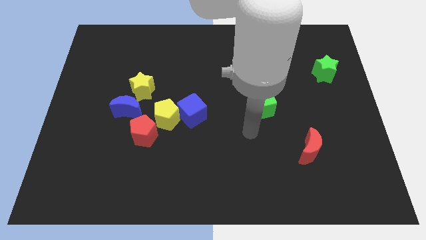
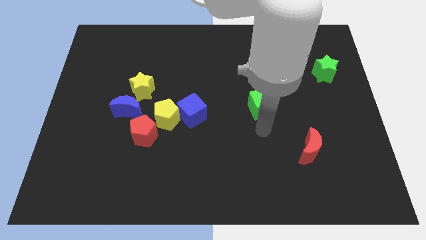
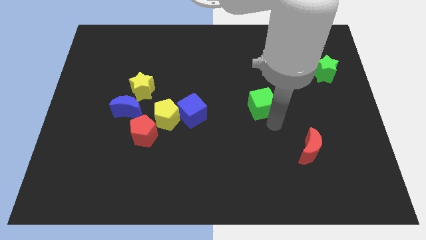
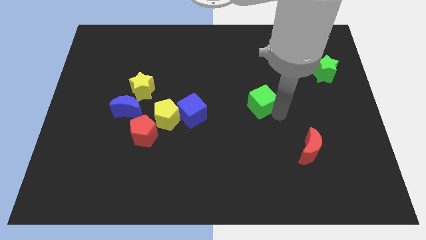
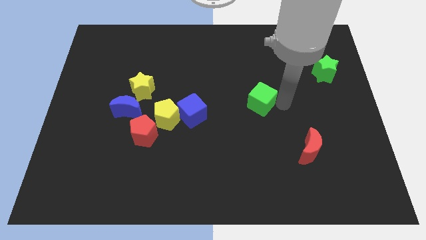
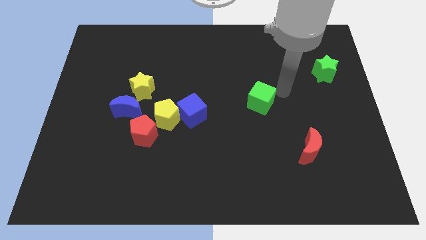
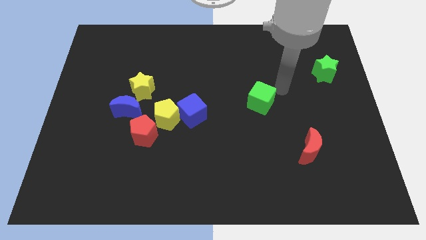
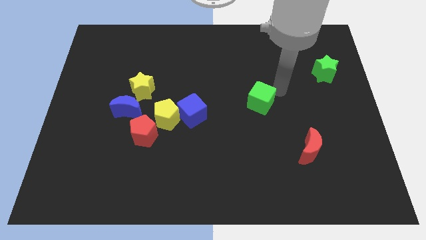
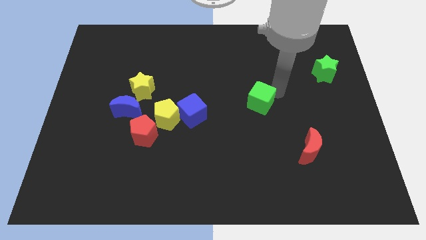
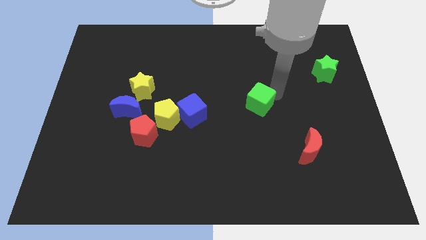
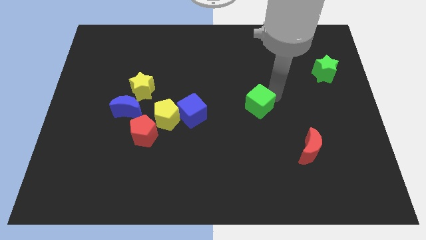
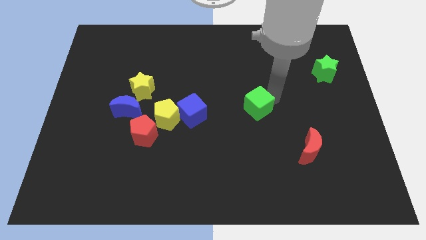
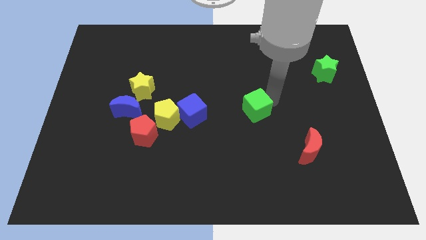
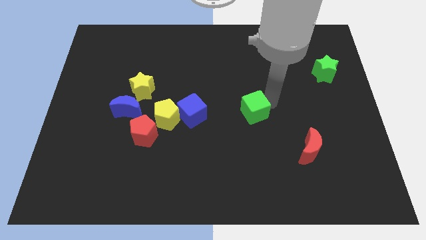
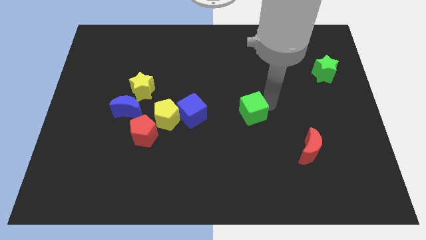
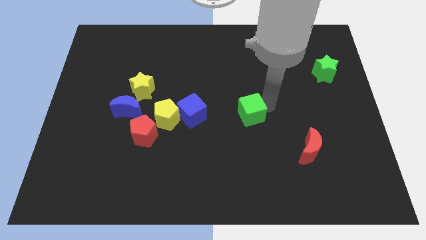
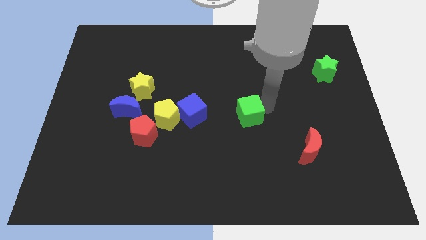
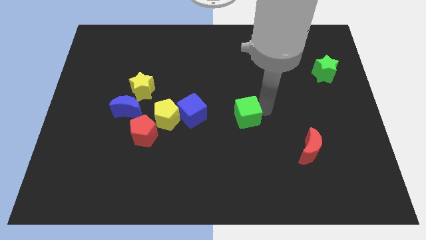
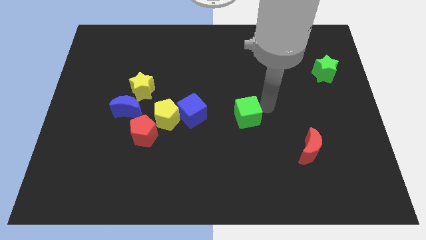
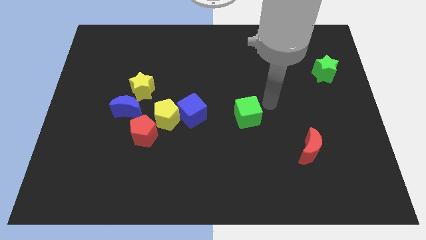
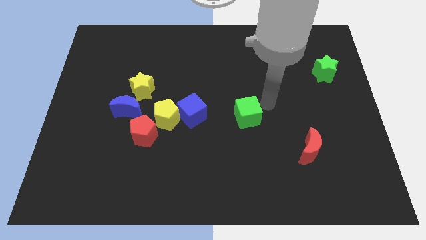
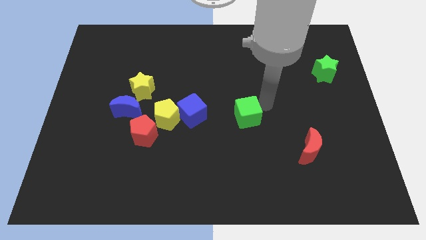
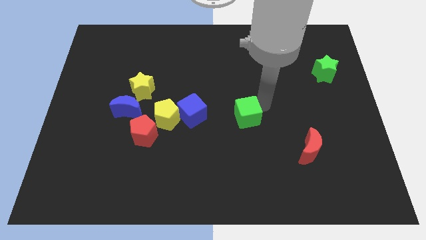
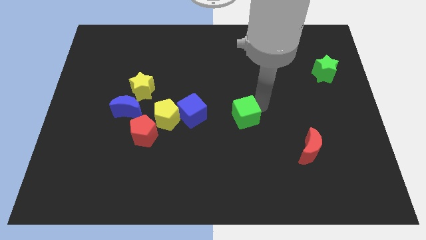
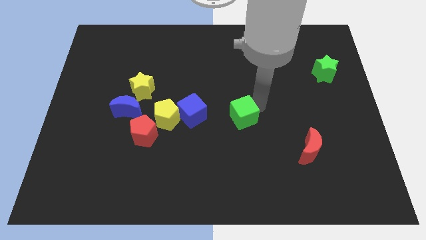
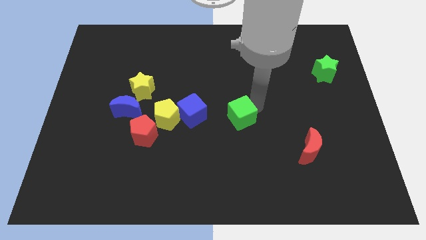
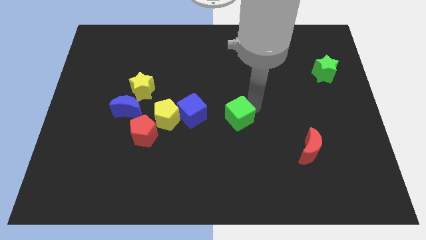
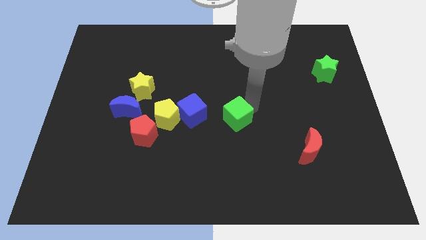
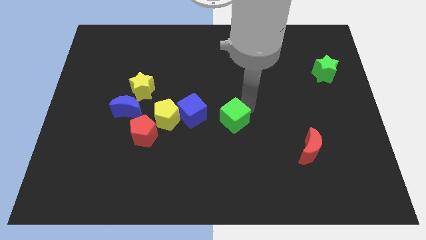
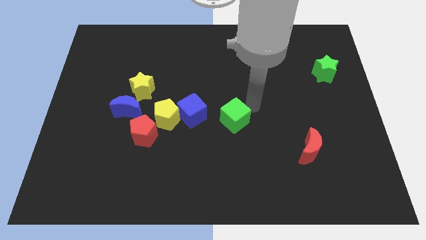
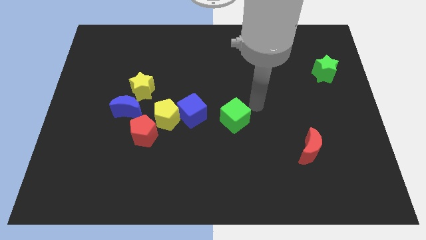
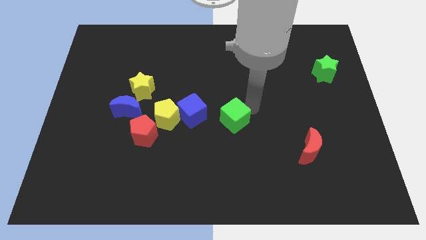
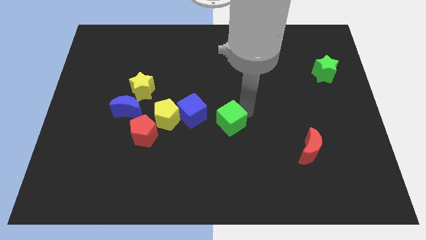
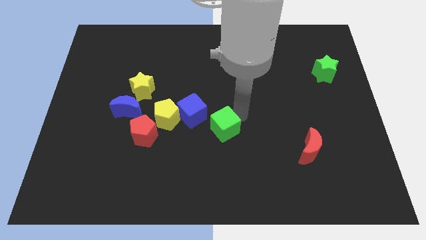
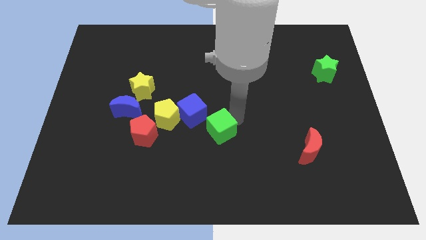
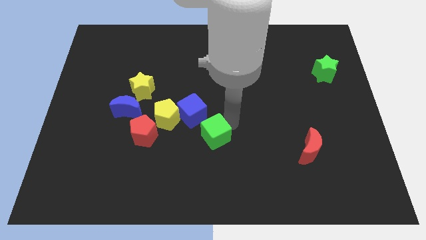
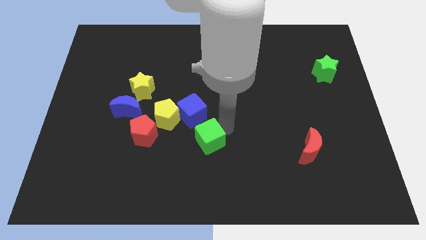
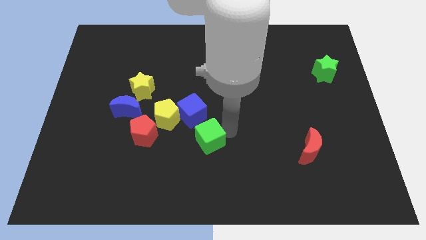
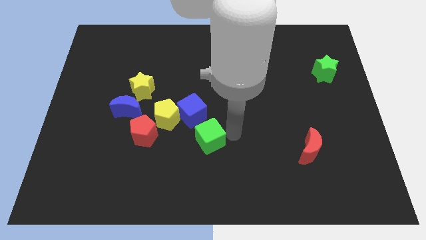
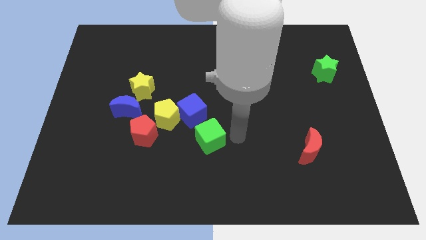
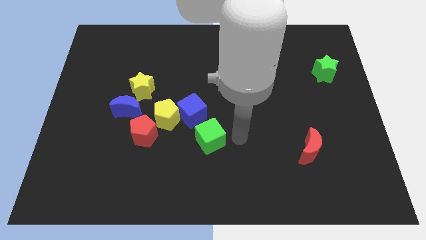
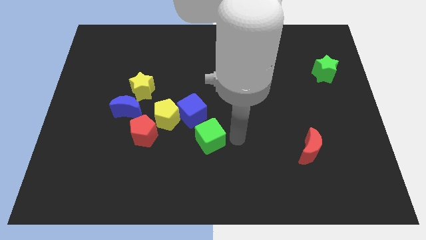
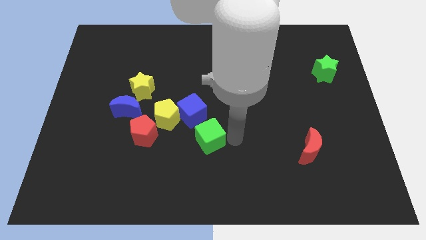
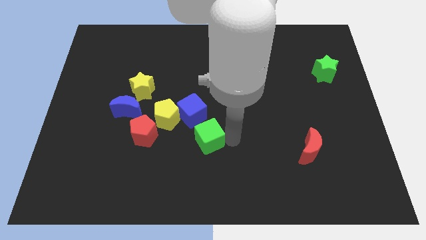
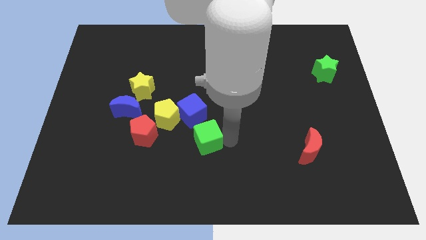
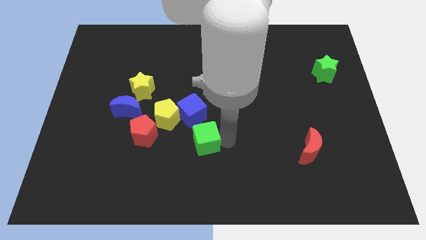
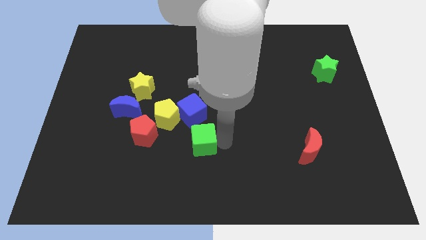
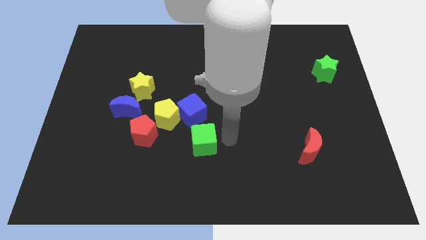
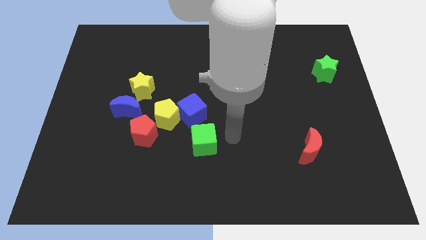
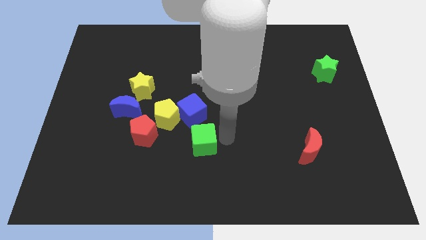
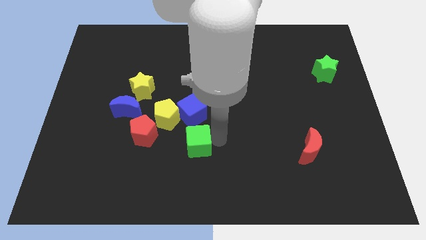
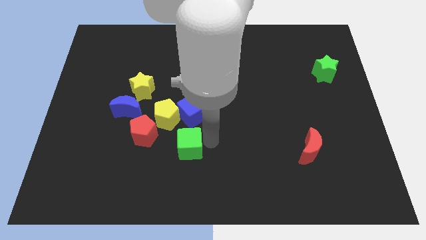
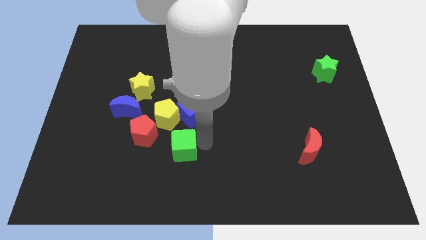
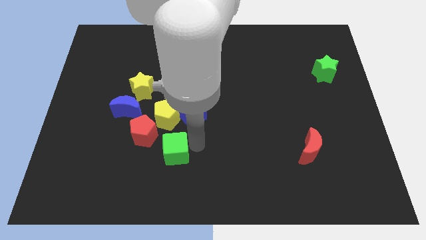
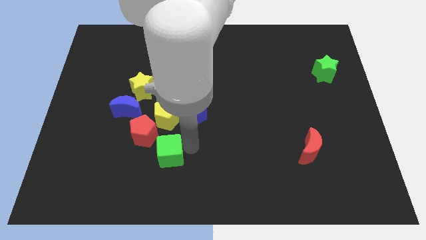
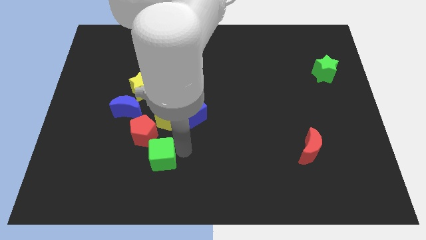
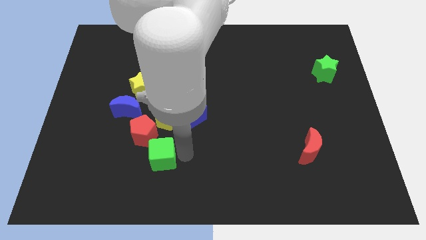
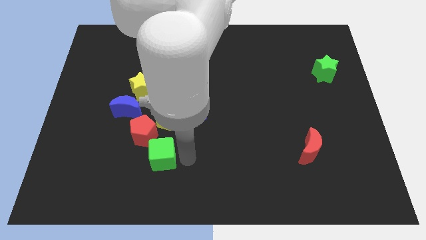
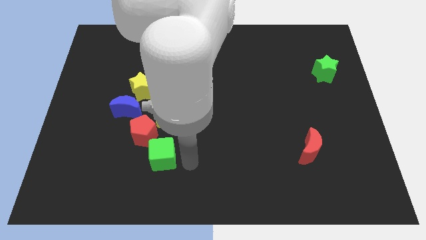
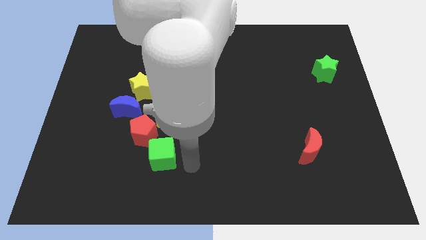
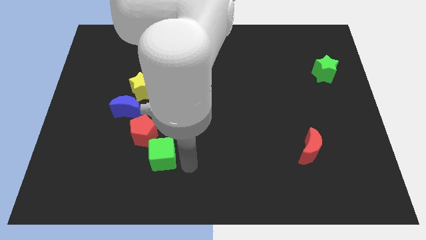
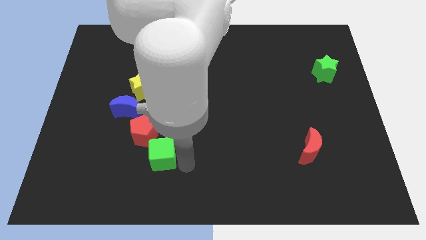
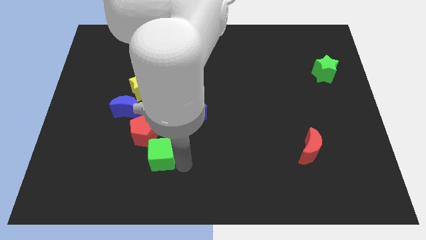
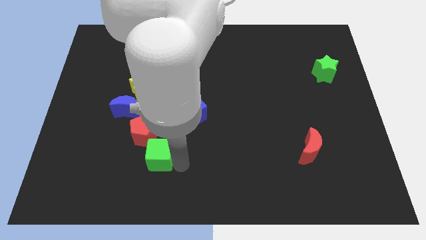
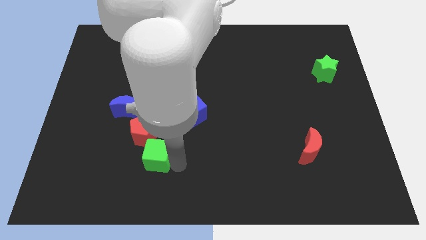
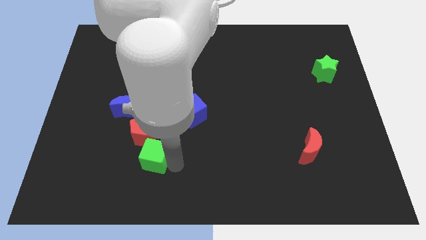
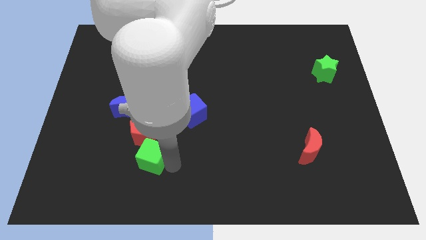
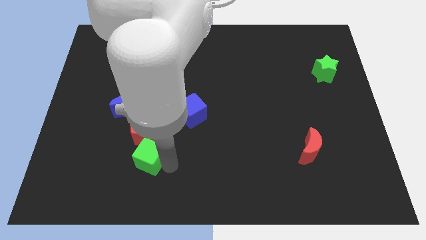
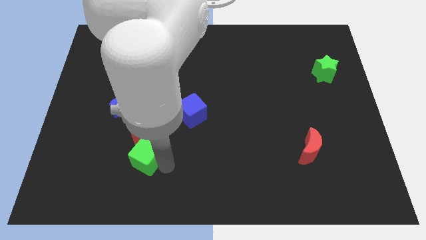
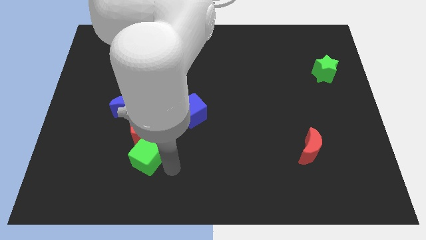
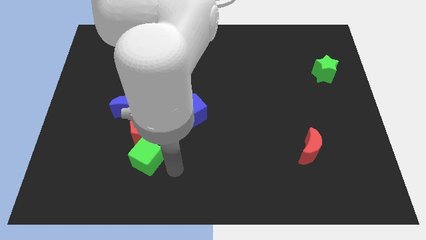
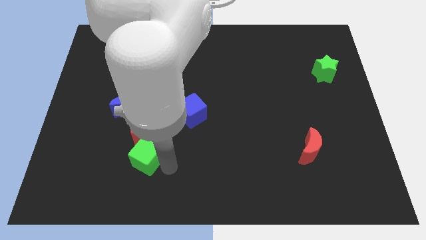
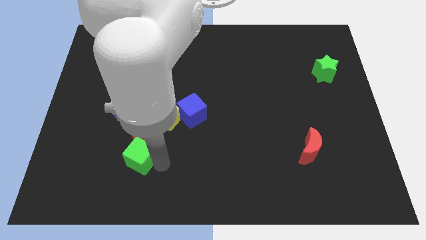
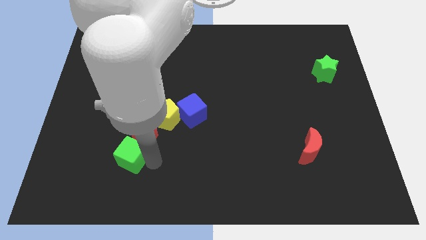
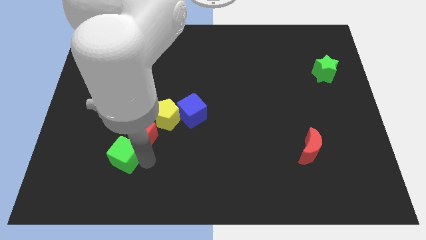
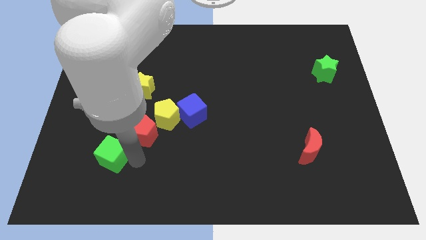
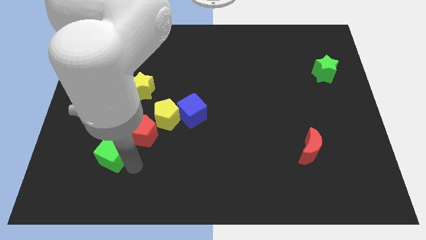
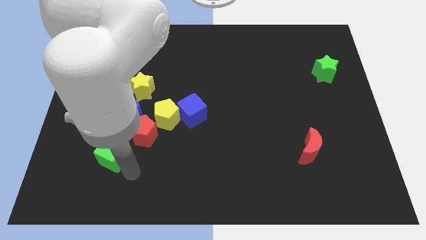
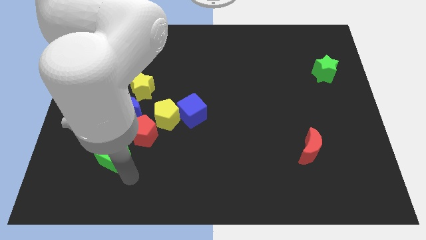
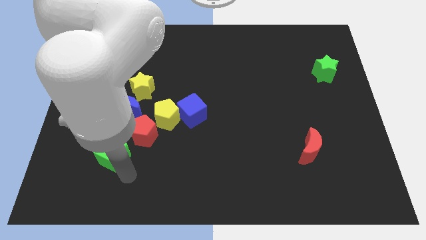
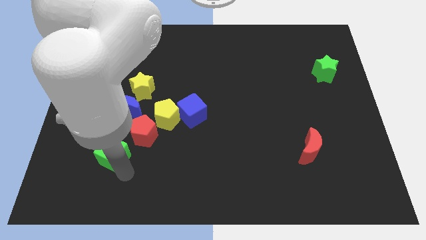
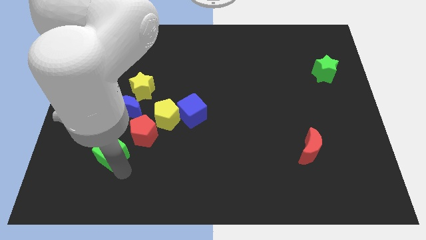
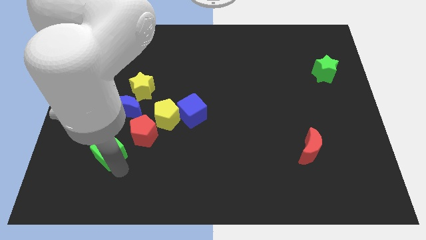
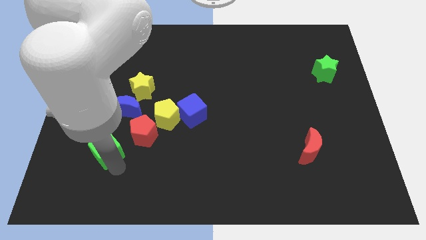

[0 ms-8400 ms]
push the green cube just left of the red pentagon
